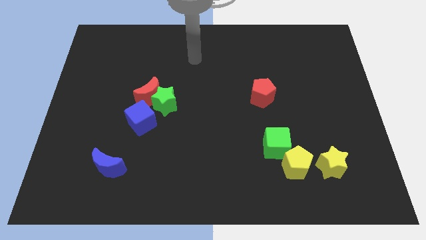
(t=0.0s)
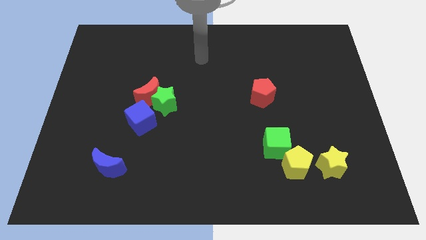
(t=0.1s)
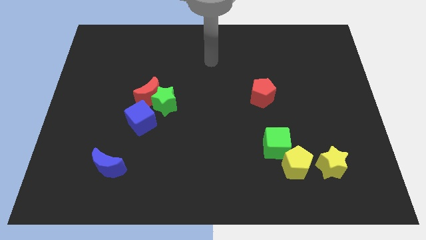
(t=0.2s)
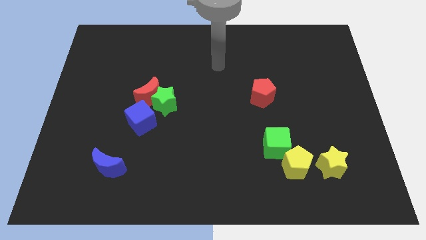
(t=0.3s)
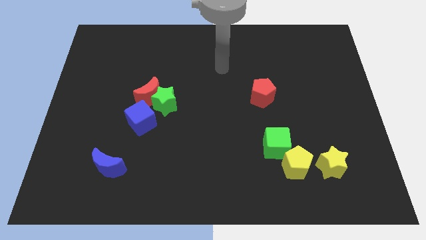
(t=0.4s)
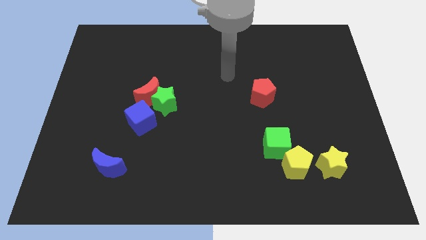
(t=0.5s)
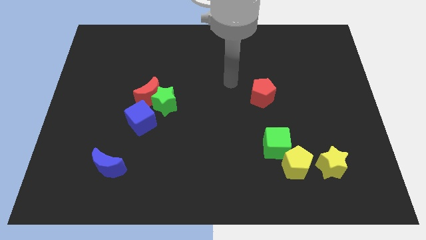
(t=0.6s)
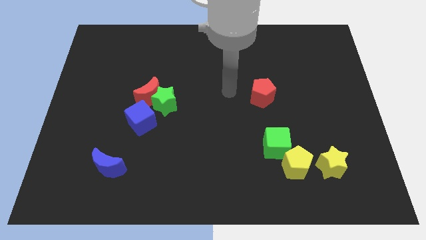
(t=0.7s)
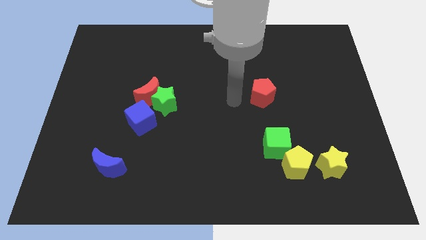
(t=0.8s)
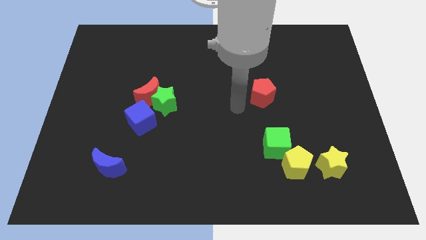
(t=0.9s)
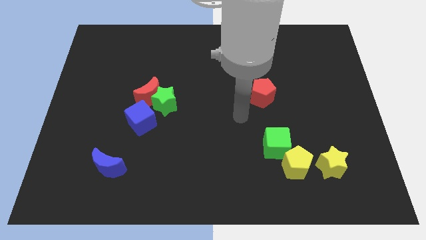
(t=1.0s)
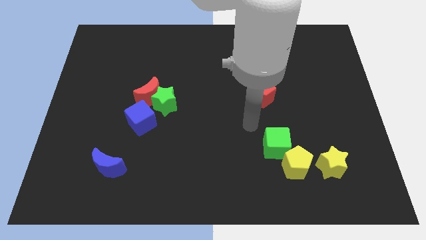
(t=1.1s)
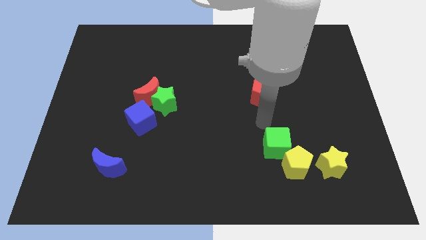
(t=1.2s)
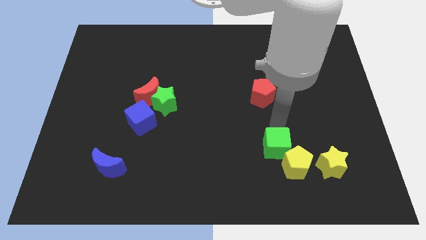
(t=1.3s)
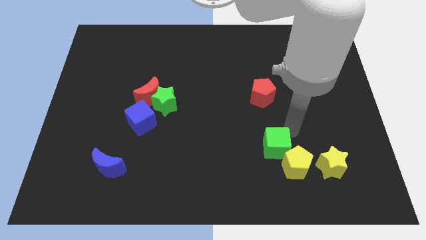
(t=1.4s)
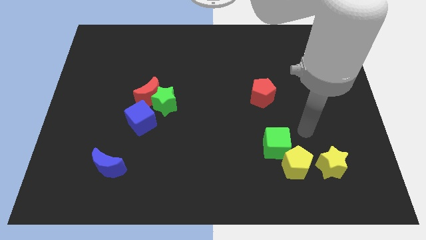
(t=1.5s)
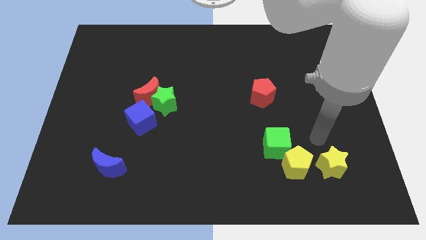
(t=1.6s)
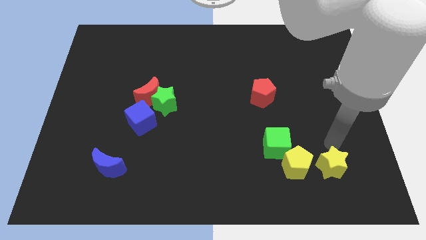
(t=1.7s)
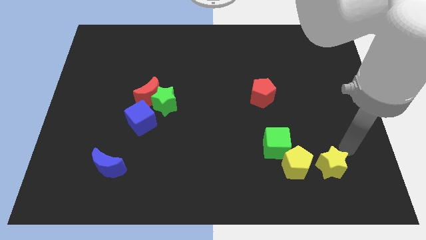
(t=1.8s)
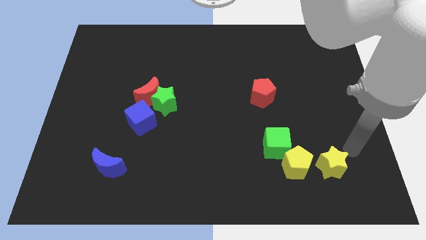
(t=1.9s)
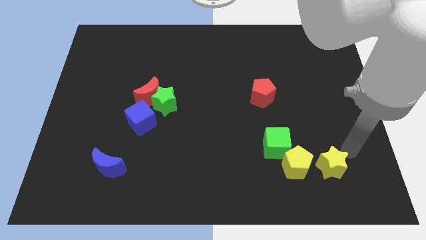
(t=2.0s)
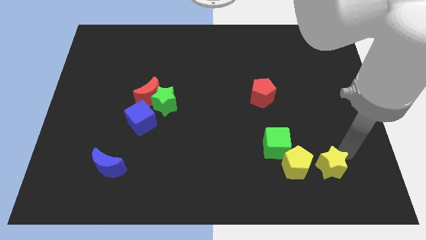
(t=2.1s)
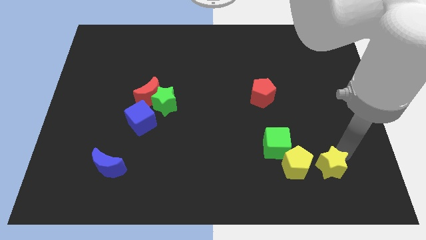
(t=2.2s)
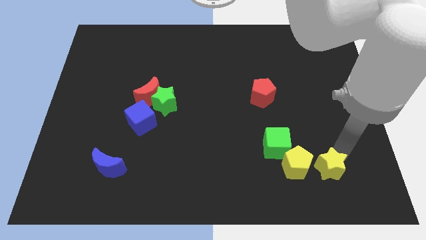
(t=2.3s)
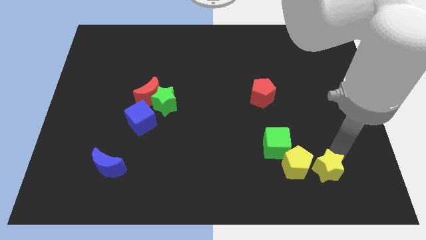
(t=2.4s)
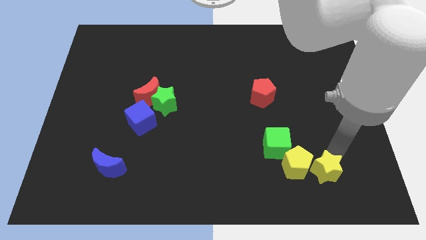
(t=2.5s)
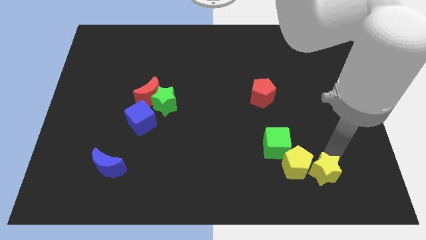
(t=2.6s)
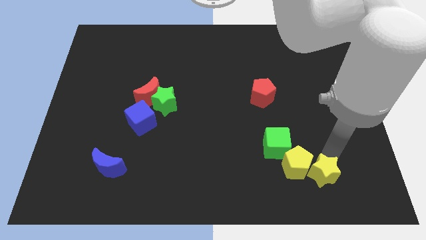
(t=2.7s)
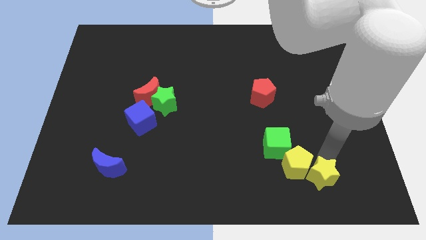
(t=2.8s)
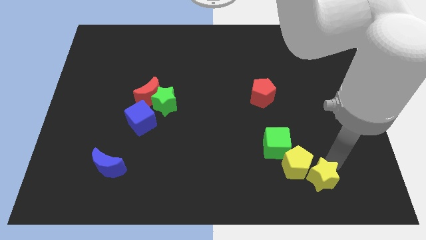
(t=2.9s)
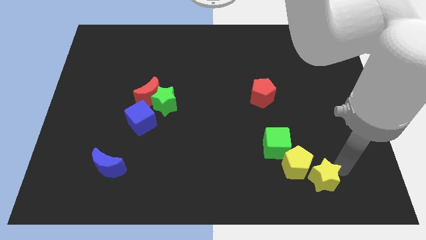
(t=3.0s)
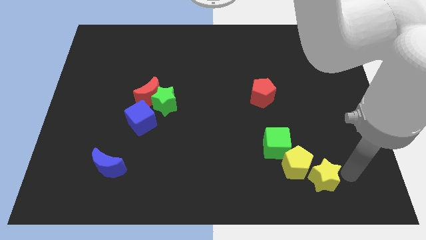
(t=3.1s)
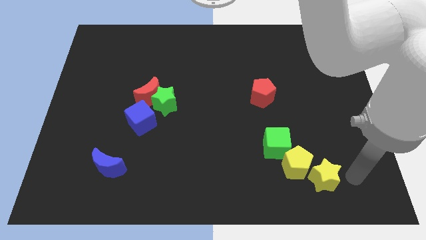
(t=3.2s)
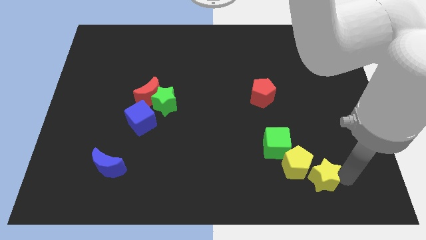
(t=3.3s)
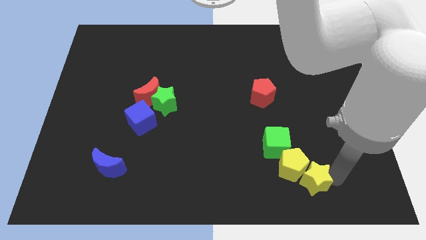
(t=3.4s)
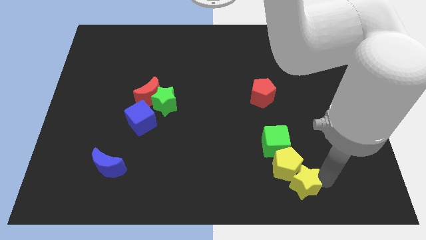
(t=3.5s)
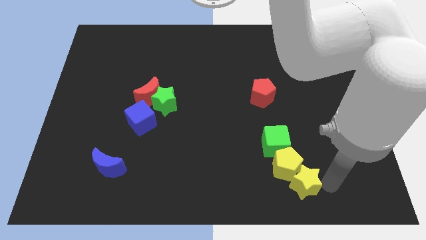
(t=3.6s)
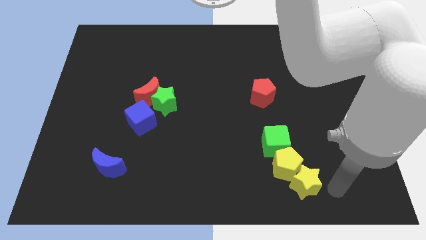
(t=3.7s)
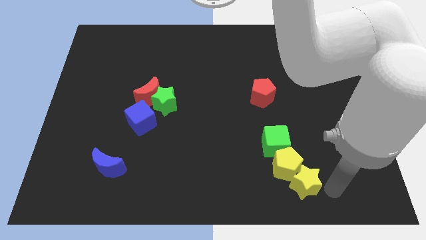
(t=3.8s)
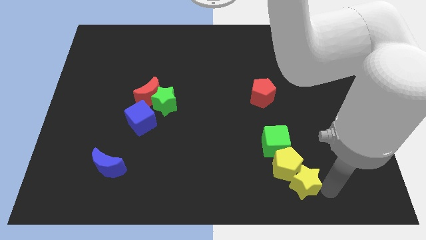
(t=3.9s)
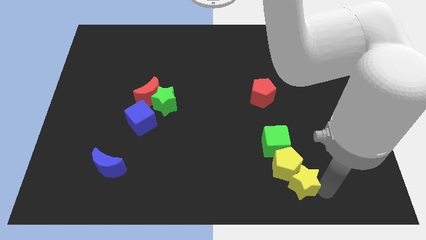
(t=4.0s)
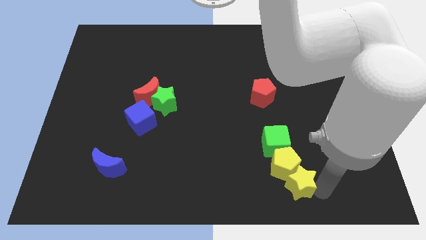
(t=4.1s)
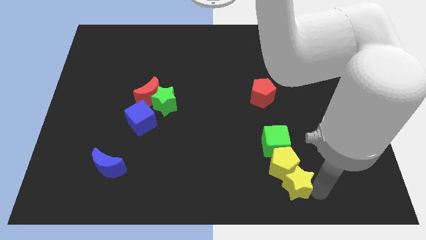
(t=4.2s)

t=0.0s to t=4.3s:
slide the yellow star somewhat left

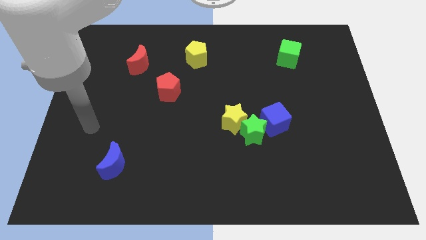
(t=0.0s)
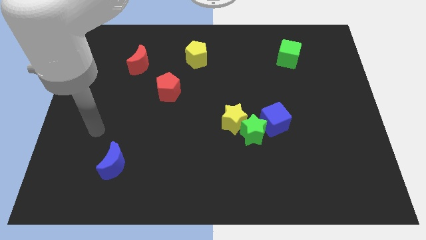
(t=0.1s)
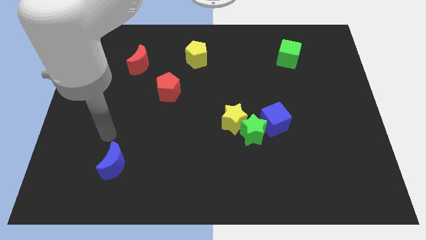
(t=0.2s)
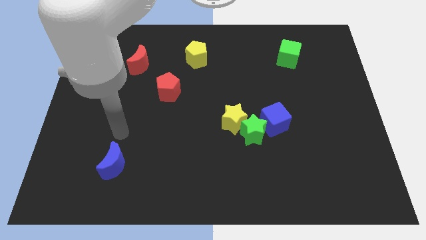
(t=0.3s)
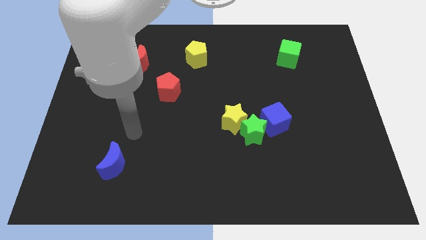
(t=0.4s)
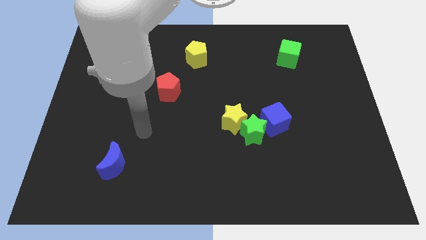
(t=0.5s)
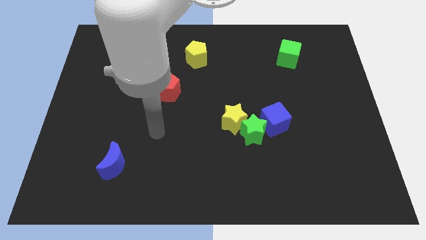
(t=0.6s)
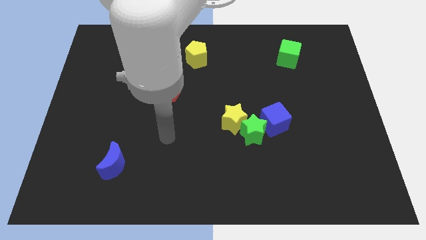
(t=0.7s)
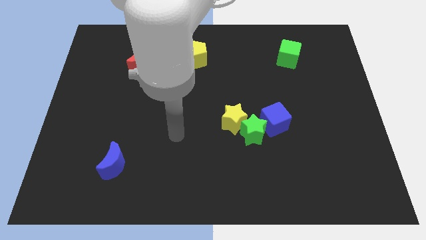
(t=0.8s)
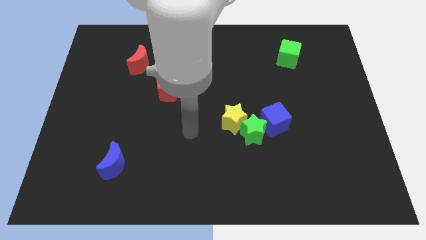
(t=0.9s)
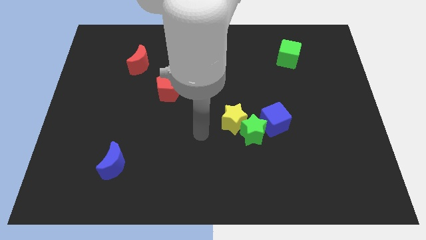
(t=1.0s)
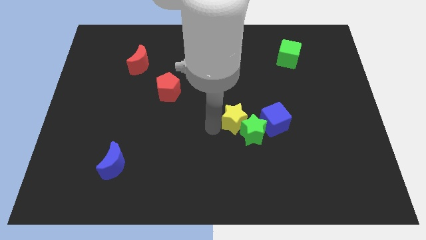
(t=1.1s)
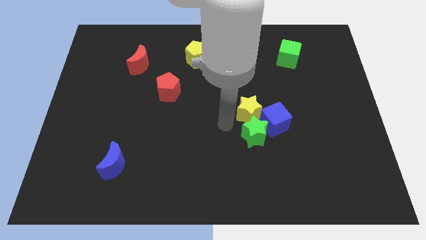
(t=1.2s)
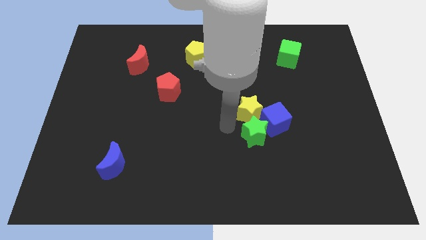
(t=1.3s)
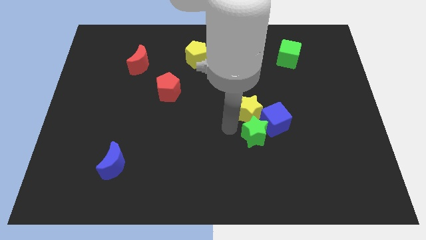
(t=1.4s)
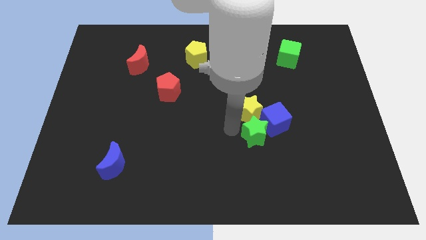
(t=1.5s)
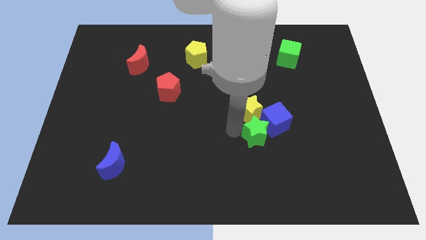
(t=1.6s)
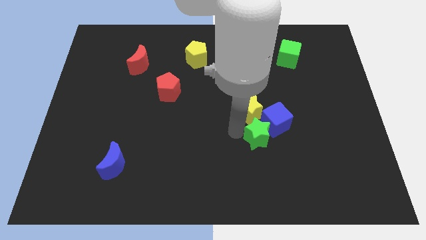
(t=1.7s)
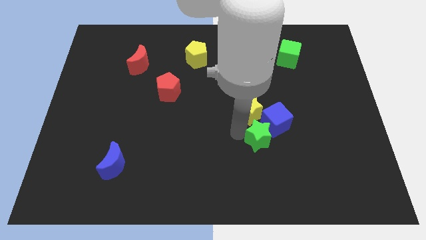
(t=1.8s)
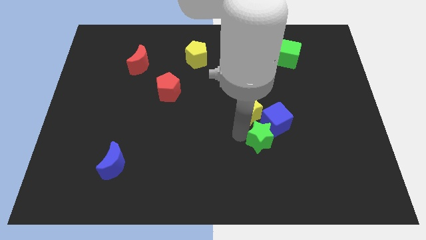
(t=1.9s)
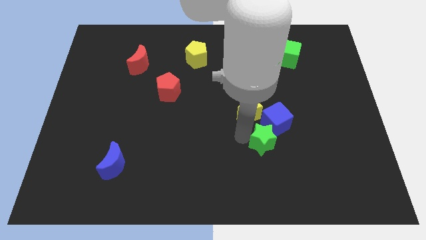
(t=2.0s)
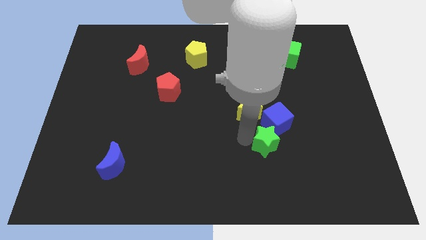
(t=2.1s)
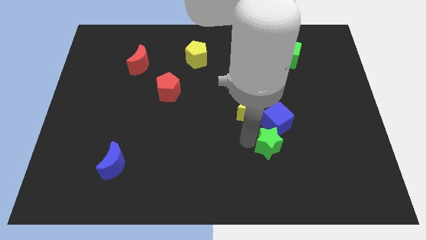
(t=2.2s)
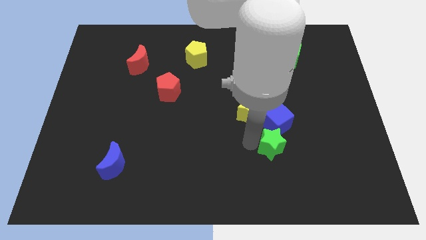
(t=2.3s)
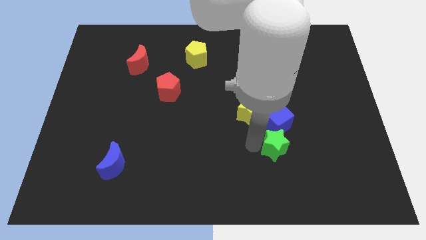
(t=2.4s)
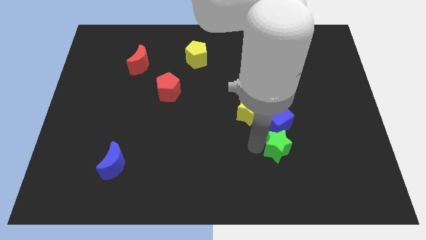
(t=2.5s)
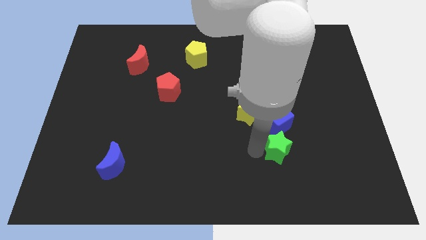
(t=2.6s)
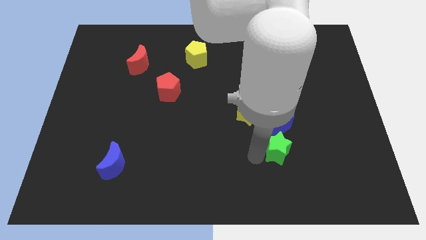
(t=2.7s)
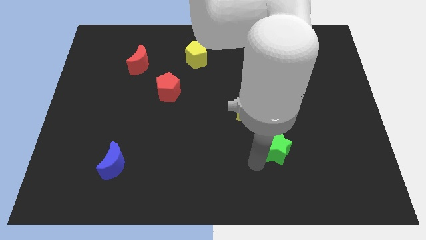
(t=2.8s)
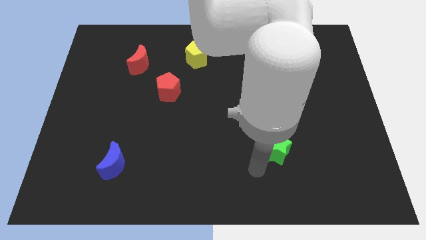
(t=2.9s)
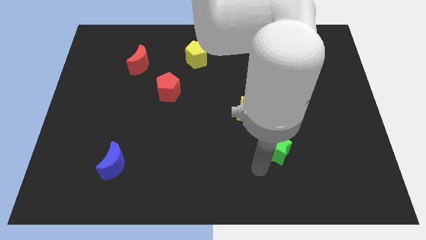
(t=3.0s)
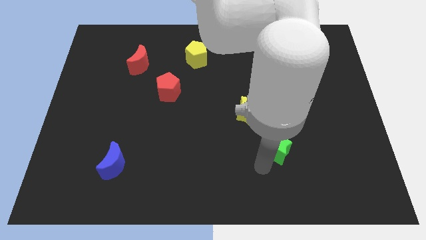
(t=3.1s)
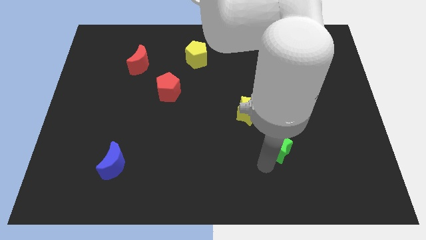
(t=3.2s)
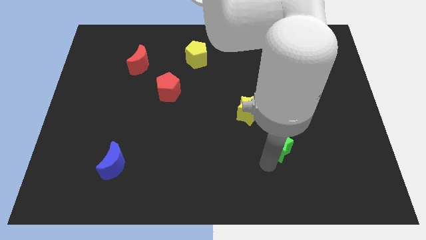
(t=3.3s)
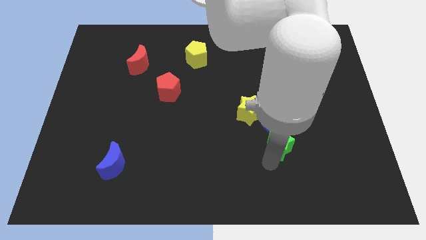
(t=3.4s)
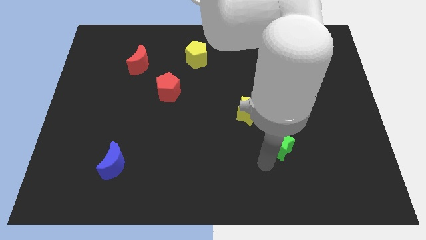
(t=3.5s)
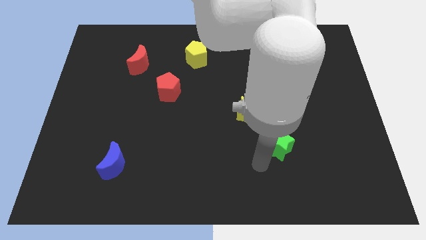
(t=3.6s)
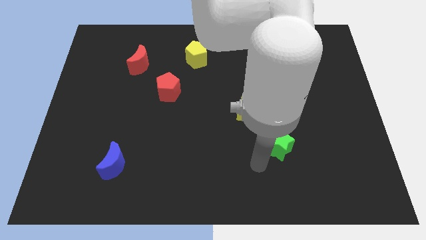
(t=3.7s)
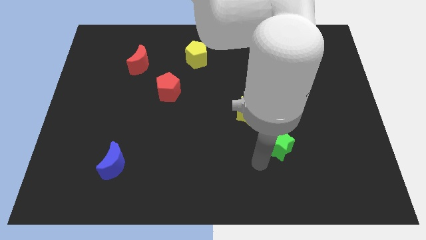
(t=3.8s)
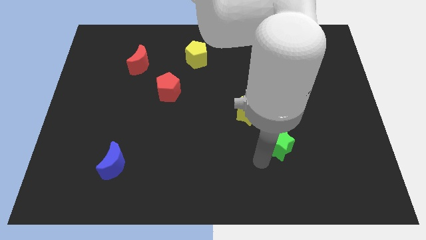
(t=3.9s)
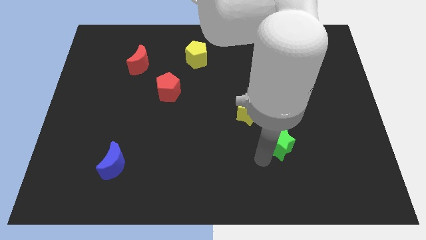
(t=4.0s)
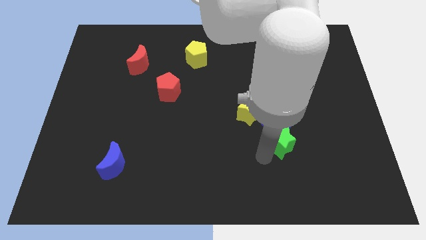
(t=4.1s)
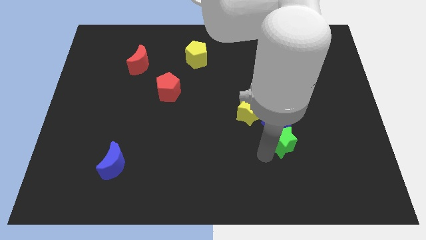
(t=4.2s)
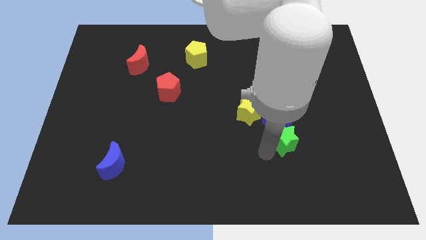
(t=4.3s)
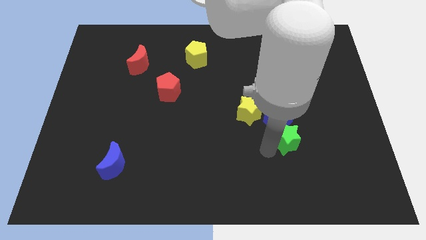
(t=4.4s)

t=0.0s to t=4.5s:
slightly move the green star right
